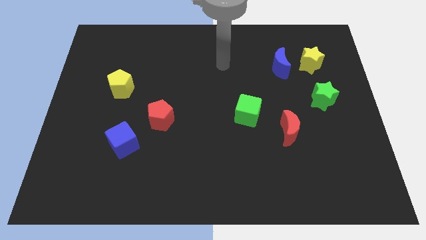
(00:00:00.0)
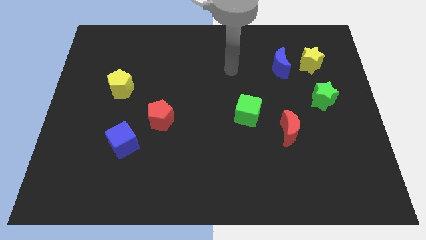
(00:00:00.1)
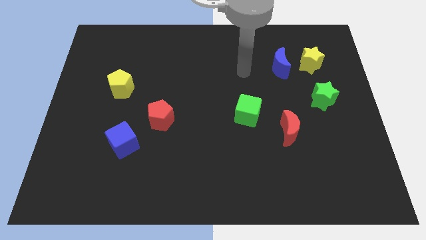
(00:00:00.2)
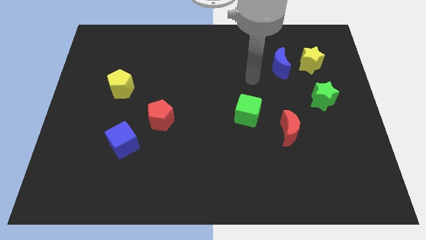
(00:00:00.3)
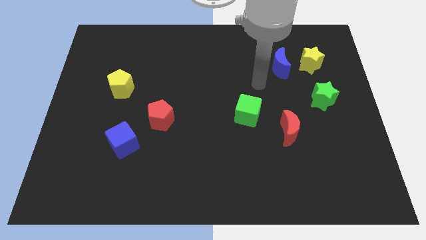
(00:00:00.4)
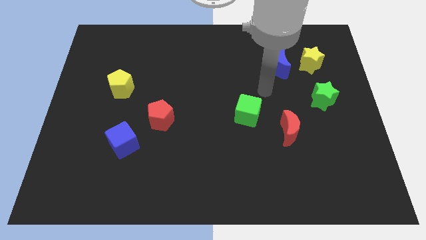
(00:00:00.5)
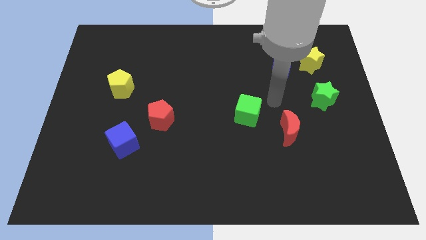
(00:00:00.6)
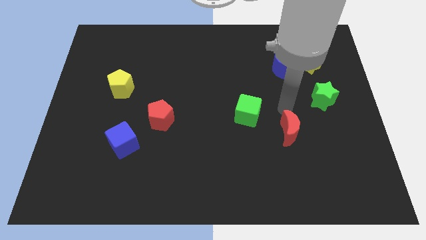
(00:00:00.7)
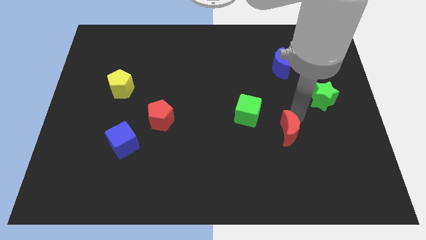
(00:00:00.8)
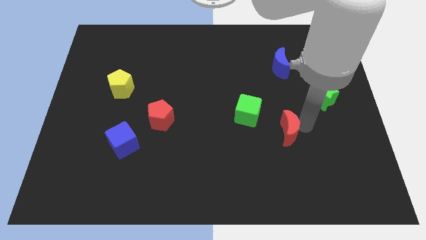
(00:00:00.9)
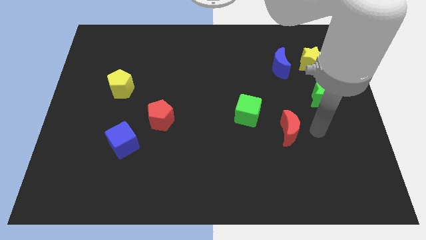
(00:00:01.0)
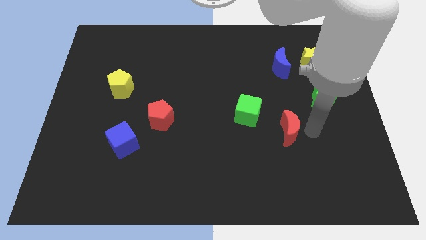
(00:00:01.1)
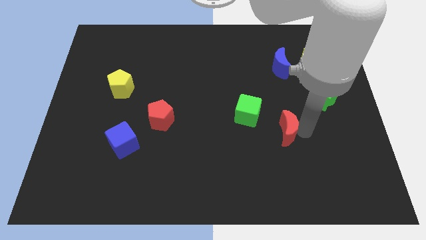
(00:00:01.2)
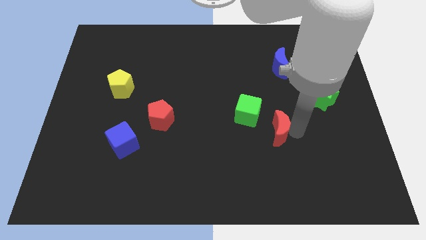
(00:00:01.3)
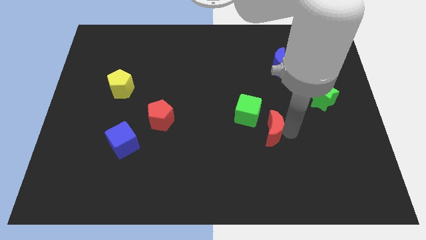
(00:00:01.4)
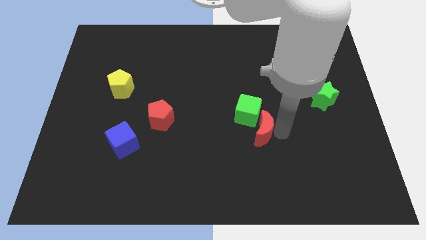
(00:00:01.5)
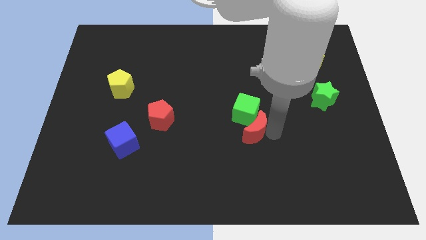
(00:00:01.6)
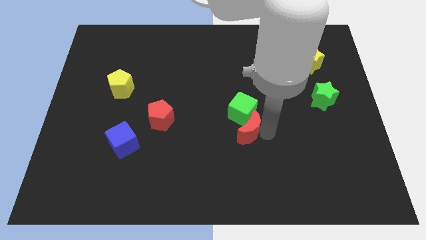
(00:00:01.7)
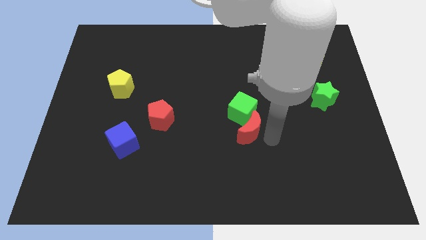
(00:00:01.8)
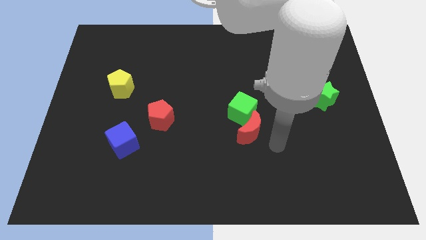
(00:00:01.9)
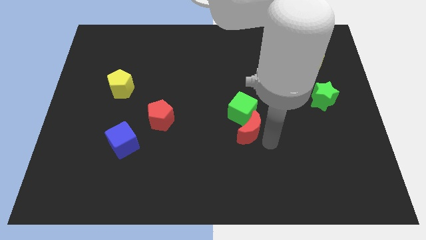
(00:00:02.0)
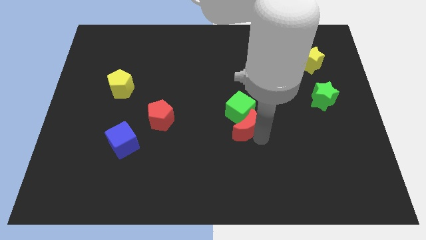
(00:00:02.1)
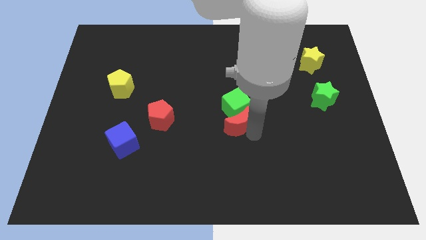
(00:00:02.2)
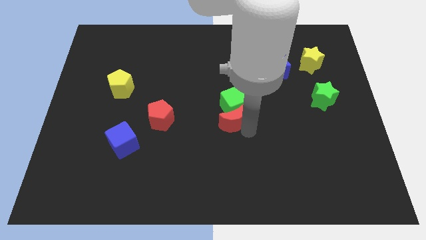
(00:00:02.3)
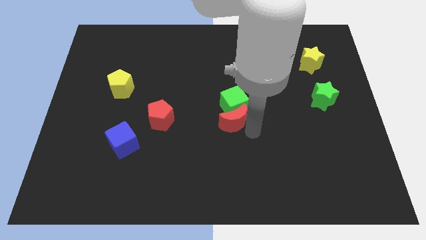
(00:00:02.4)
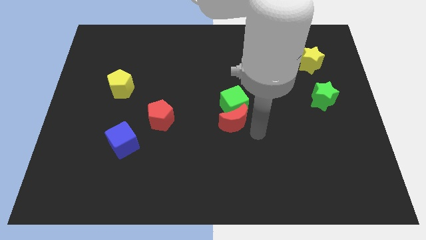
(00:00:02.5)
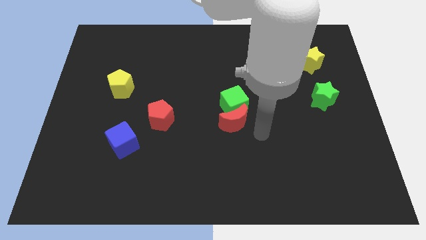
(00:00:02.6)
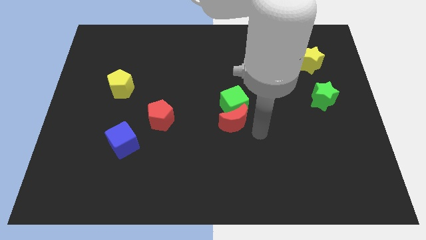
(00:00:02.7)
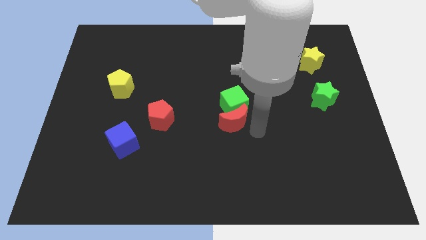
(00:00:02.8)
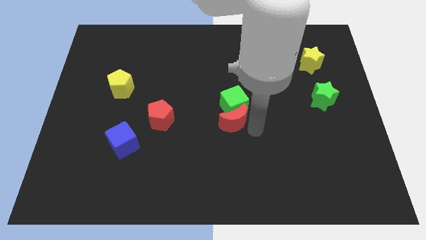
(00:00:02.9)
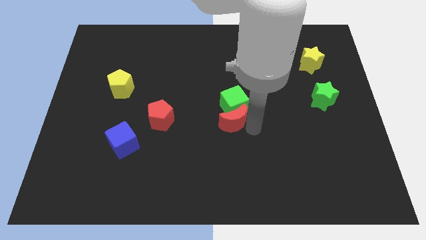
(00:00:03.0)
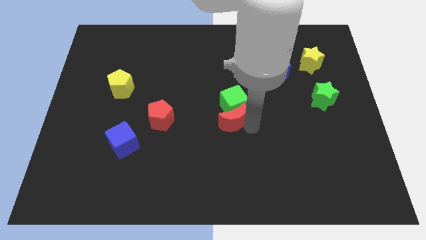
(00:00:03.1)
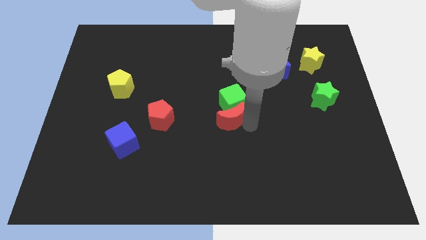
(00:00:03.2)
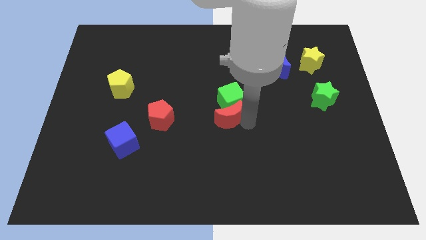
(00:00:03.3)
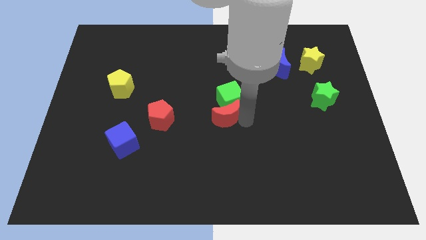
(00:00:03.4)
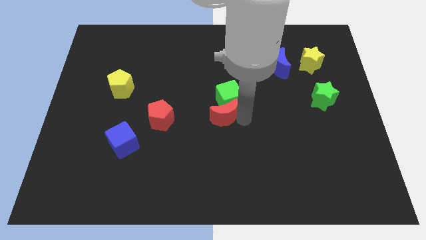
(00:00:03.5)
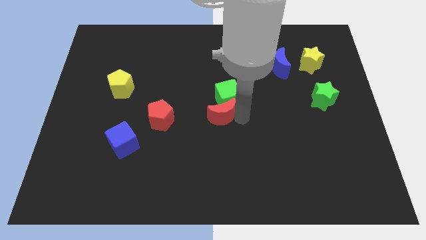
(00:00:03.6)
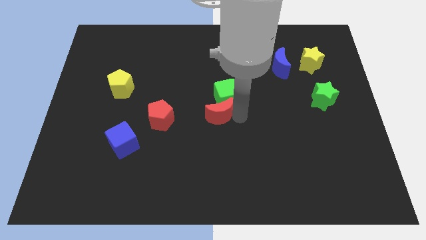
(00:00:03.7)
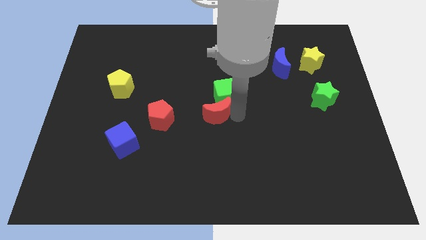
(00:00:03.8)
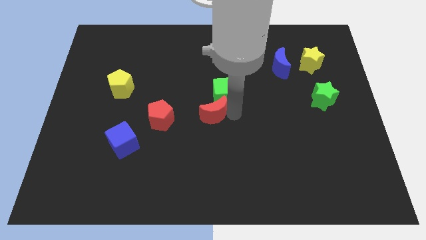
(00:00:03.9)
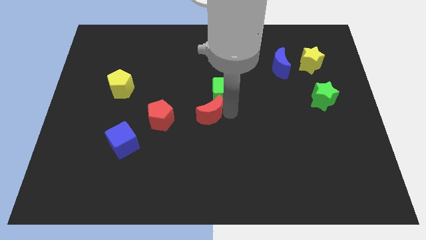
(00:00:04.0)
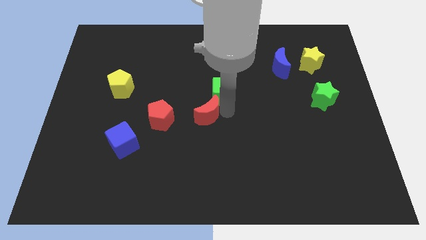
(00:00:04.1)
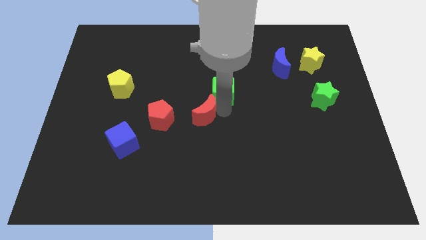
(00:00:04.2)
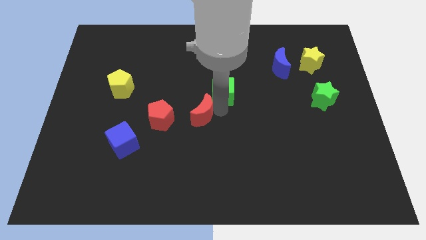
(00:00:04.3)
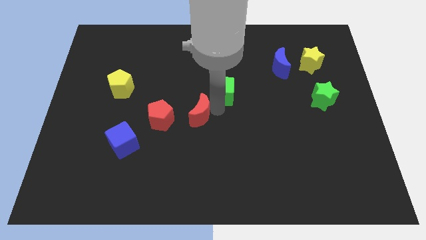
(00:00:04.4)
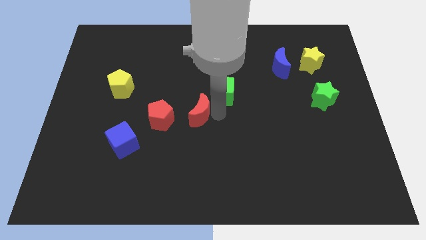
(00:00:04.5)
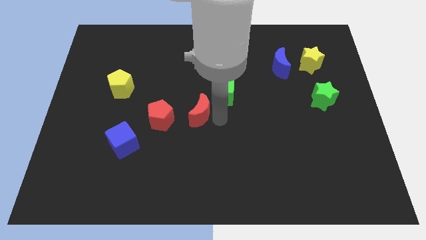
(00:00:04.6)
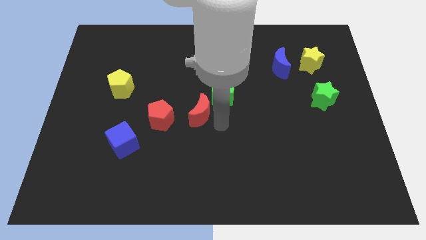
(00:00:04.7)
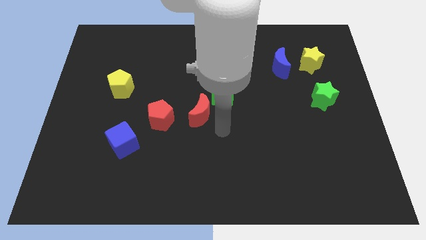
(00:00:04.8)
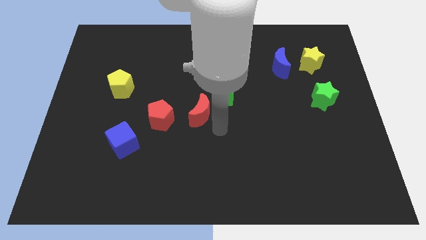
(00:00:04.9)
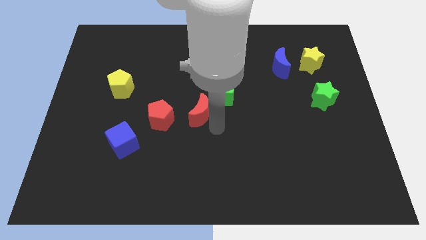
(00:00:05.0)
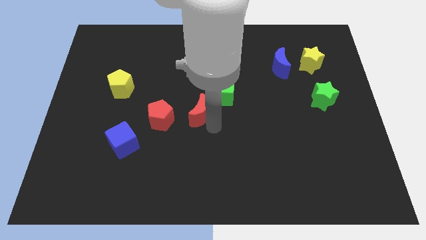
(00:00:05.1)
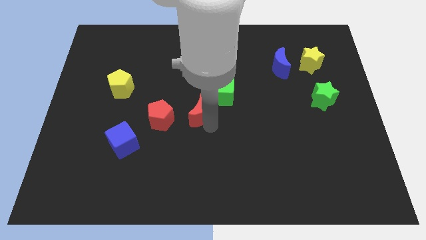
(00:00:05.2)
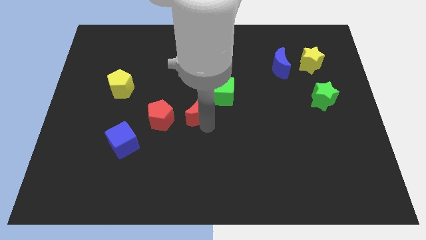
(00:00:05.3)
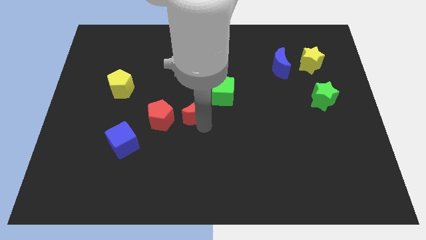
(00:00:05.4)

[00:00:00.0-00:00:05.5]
push the red moon diagonally up and to the right of the red pentagon

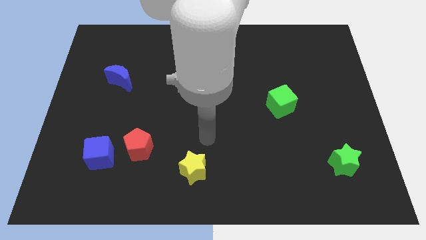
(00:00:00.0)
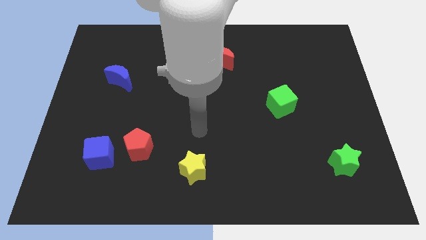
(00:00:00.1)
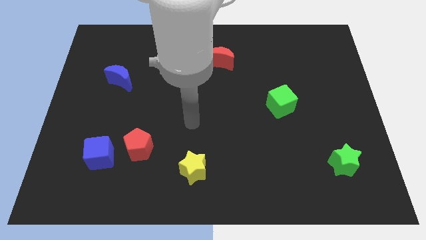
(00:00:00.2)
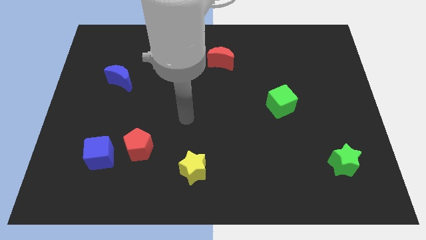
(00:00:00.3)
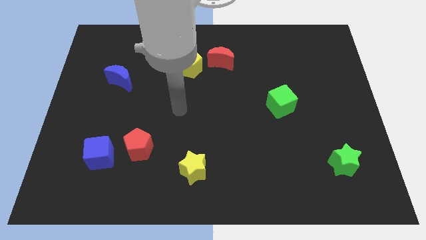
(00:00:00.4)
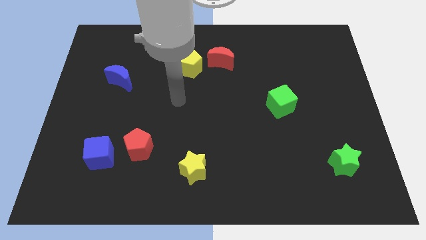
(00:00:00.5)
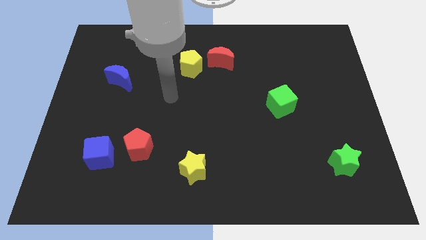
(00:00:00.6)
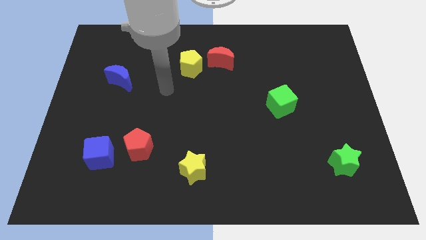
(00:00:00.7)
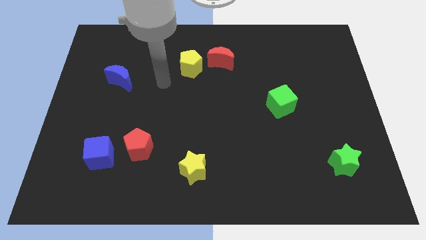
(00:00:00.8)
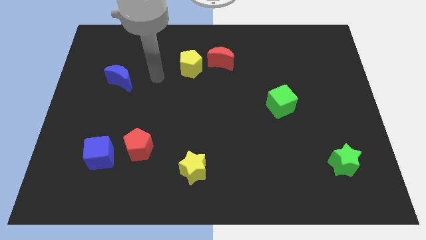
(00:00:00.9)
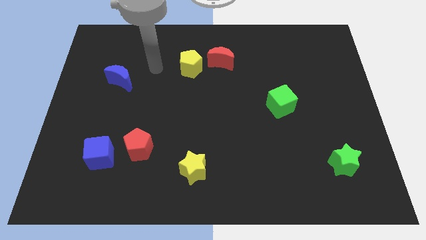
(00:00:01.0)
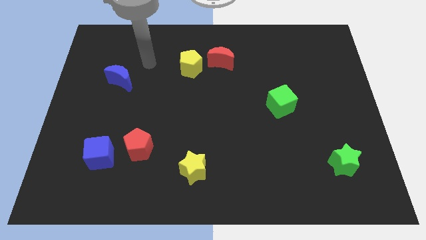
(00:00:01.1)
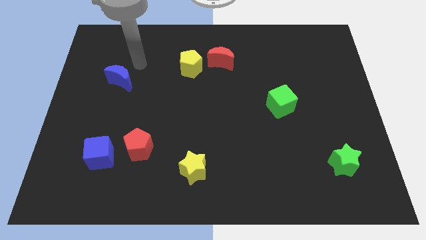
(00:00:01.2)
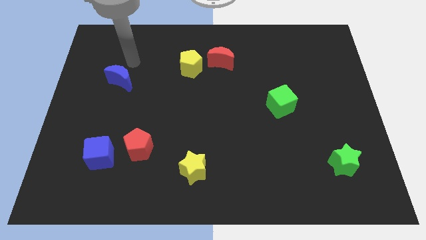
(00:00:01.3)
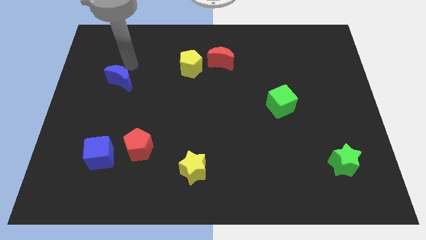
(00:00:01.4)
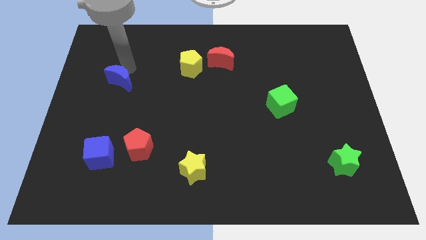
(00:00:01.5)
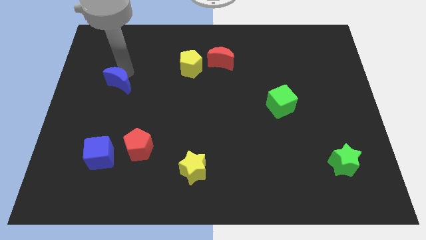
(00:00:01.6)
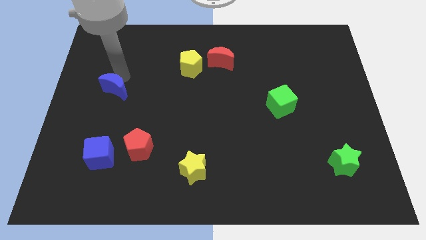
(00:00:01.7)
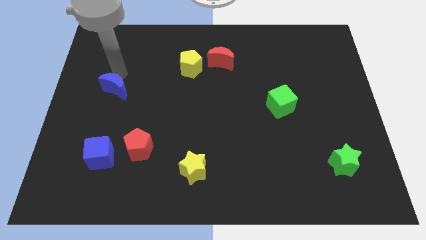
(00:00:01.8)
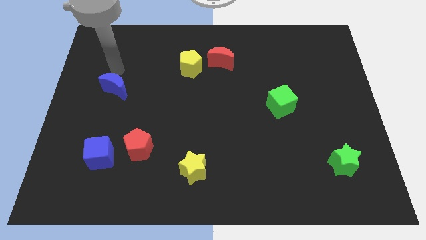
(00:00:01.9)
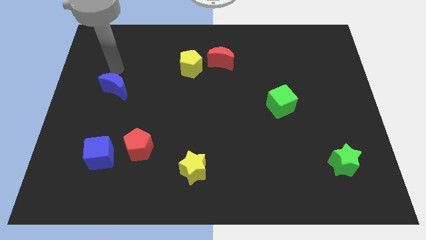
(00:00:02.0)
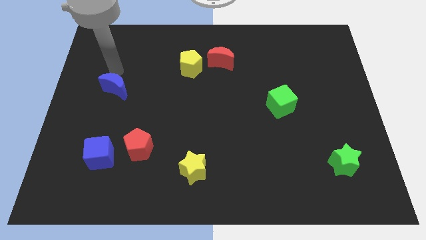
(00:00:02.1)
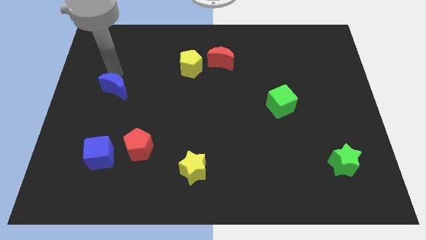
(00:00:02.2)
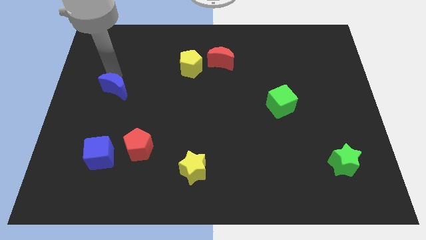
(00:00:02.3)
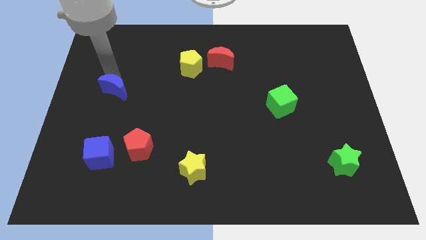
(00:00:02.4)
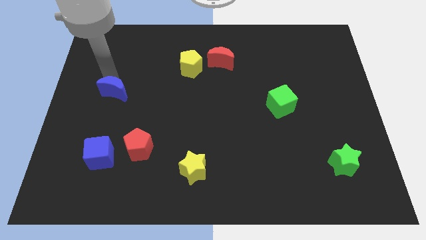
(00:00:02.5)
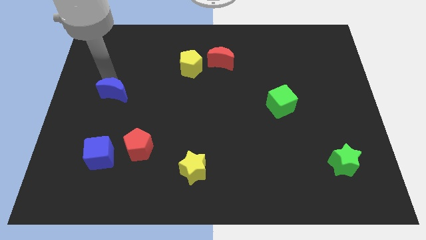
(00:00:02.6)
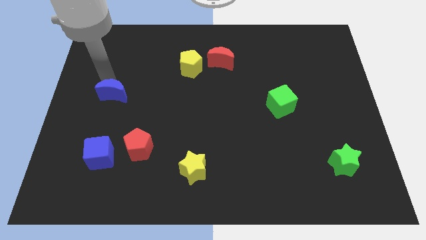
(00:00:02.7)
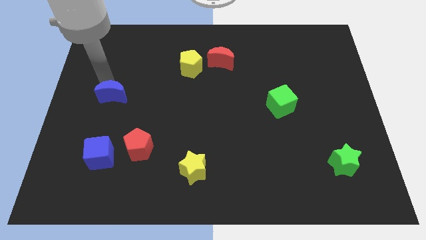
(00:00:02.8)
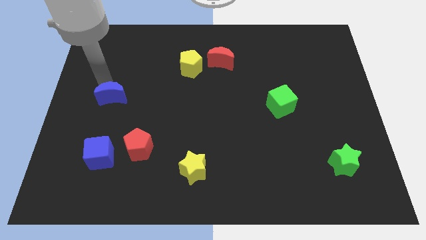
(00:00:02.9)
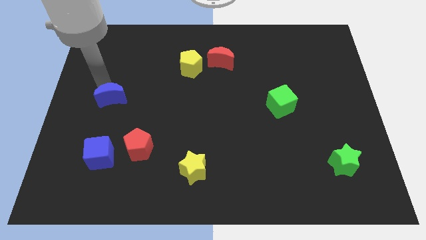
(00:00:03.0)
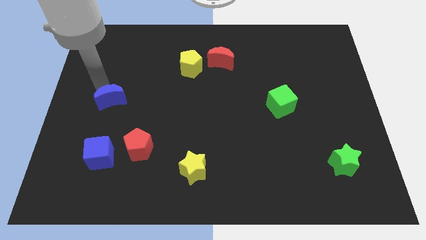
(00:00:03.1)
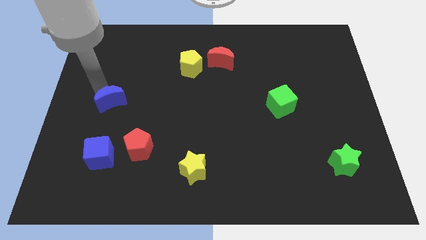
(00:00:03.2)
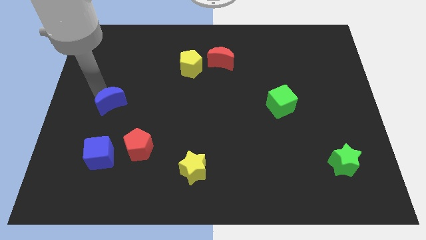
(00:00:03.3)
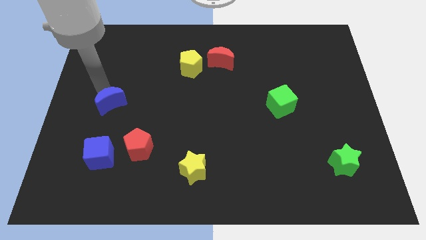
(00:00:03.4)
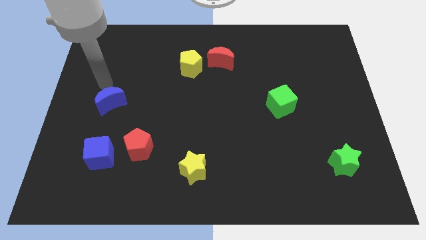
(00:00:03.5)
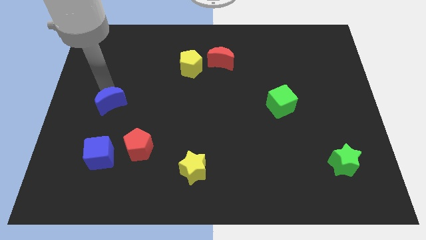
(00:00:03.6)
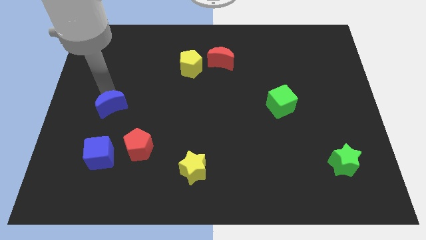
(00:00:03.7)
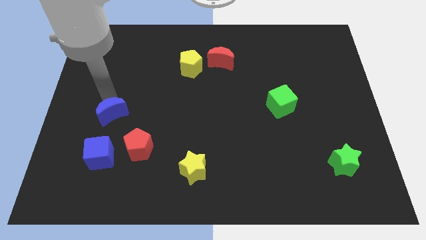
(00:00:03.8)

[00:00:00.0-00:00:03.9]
push the blue moon to the top left side of the red pentagon
